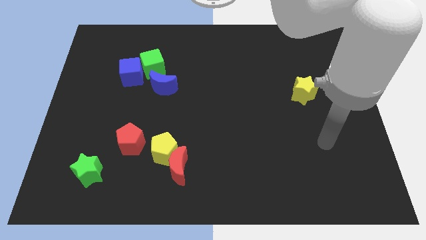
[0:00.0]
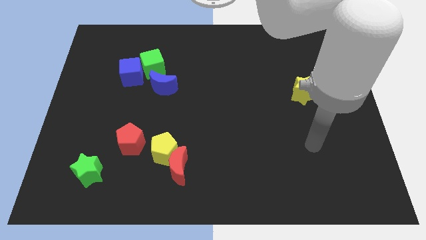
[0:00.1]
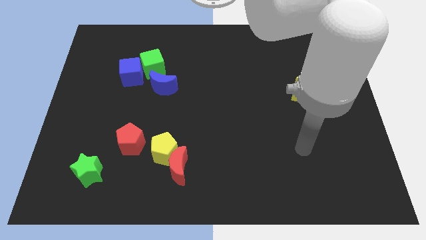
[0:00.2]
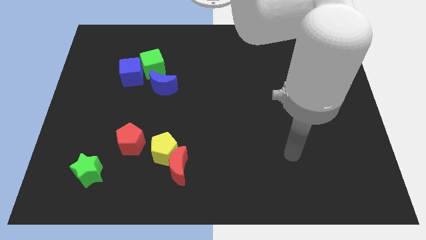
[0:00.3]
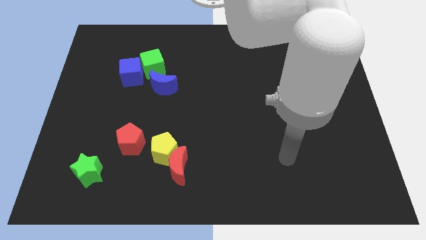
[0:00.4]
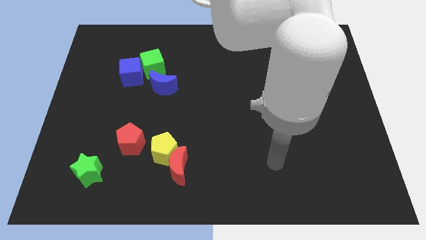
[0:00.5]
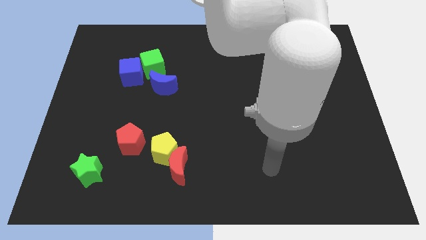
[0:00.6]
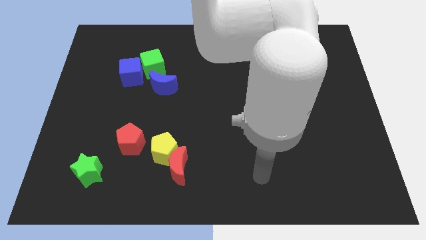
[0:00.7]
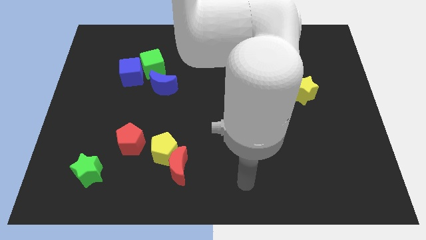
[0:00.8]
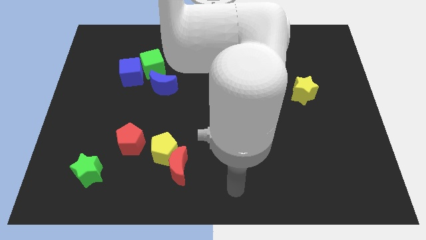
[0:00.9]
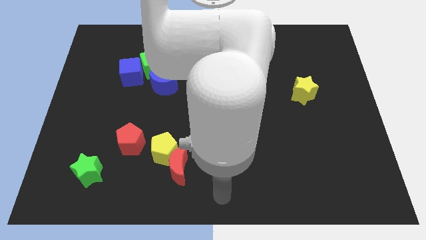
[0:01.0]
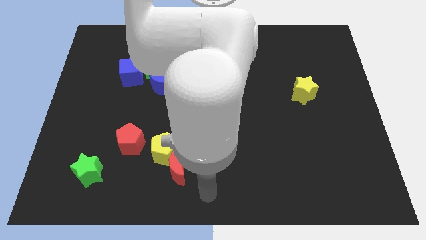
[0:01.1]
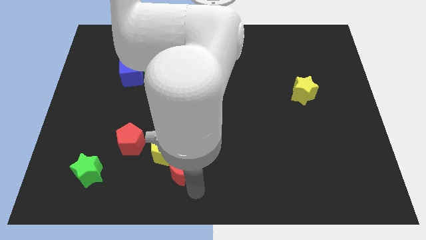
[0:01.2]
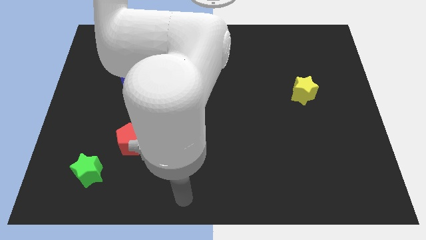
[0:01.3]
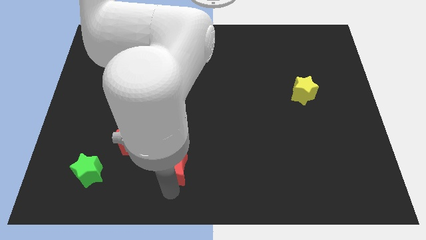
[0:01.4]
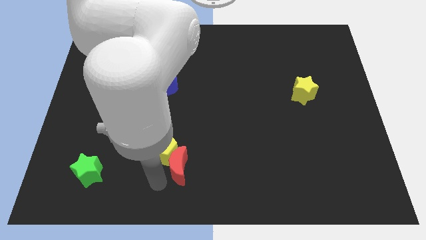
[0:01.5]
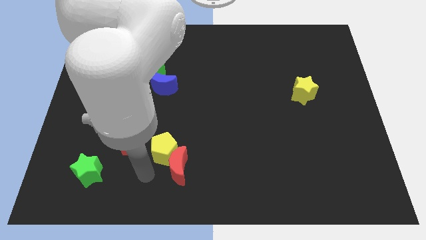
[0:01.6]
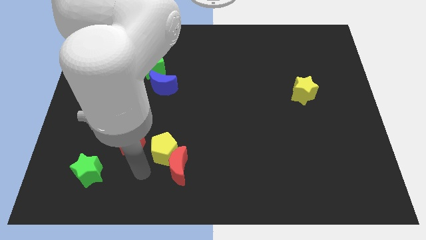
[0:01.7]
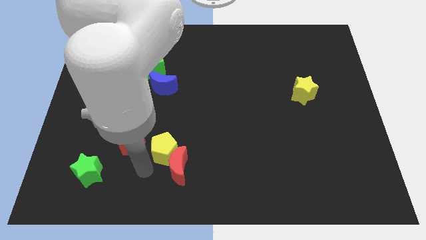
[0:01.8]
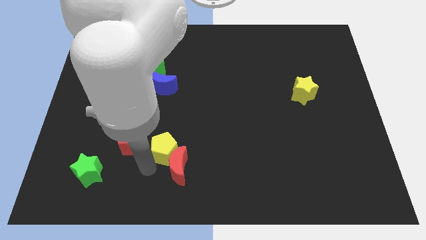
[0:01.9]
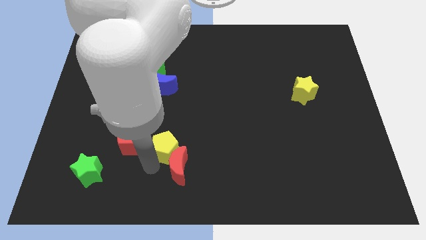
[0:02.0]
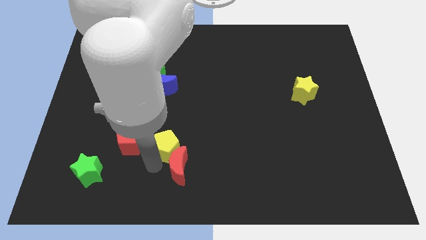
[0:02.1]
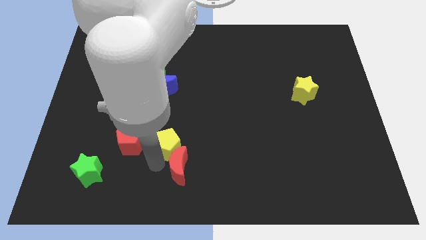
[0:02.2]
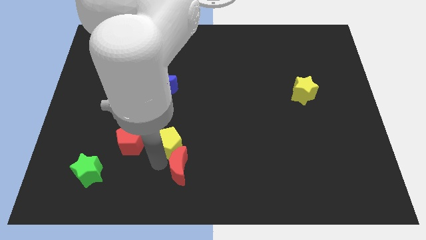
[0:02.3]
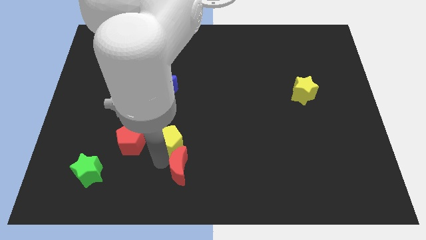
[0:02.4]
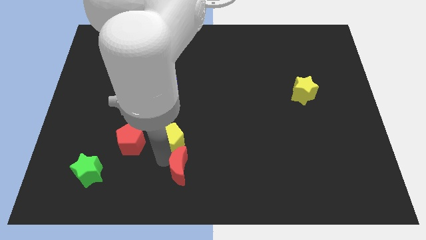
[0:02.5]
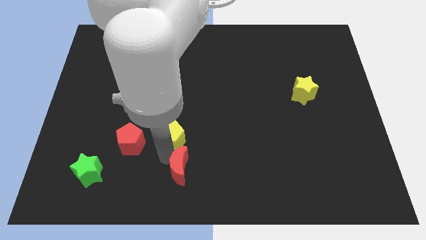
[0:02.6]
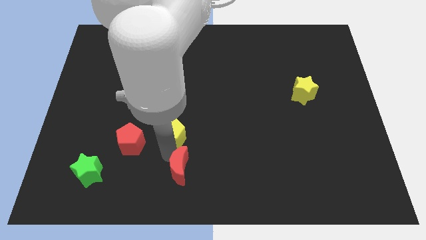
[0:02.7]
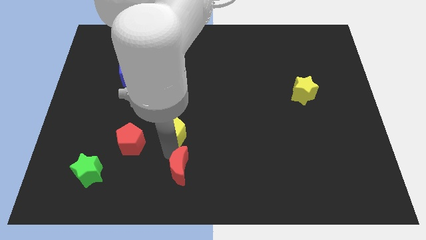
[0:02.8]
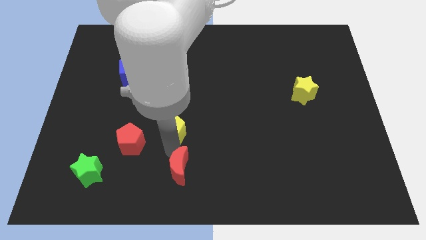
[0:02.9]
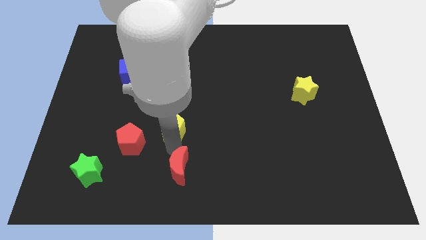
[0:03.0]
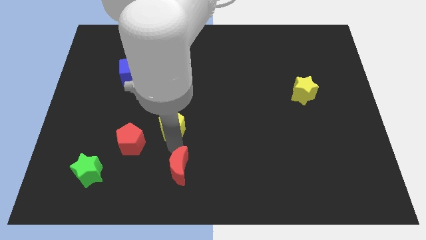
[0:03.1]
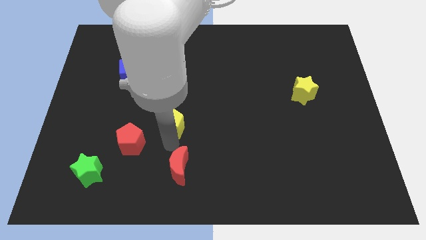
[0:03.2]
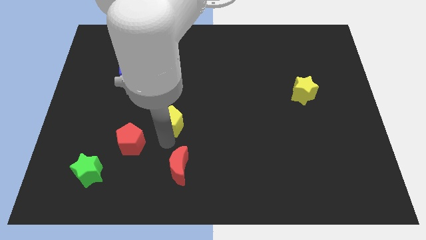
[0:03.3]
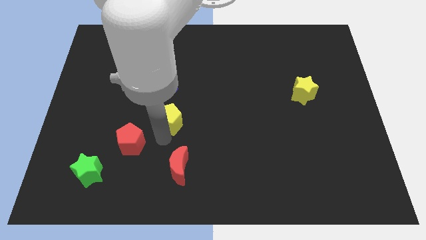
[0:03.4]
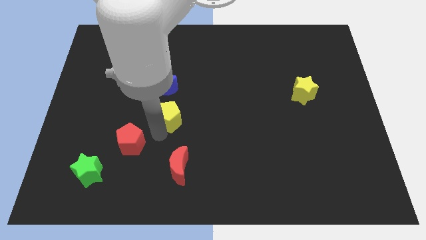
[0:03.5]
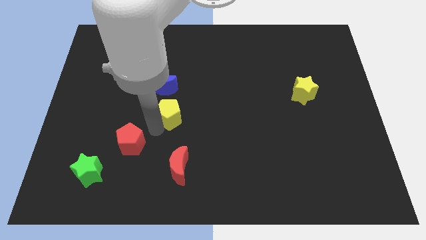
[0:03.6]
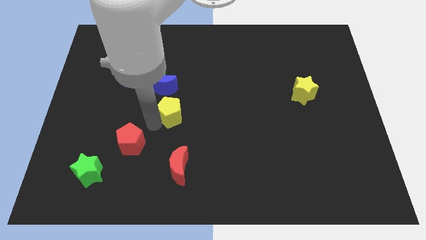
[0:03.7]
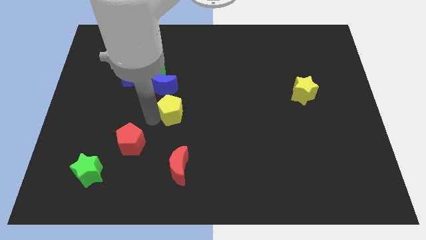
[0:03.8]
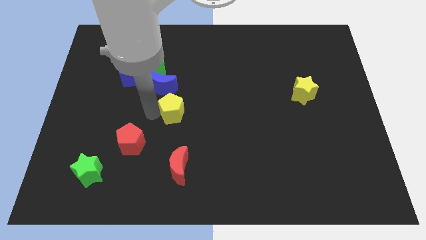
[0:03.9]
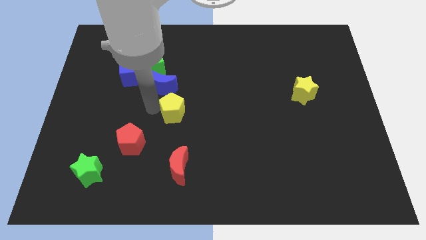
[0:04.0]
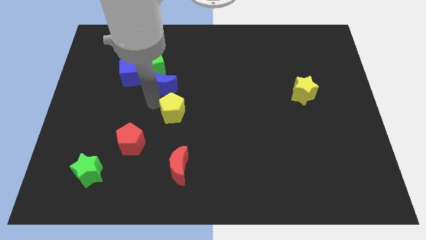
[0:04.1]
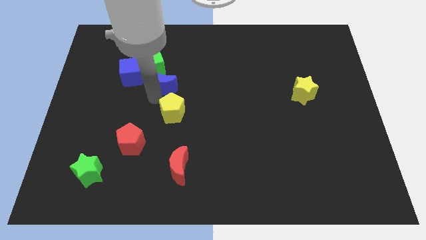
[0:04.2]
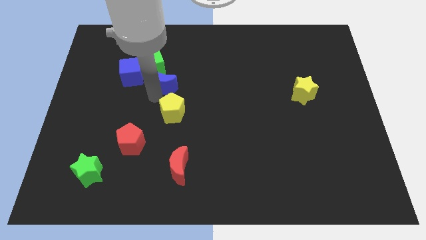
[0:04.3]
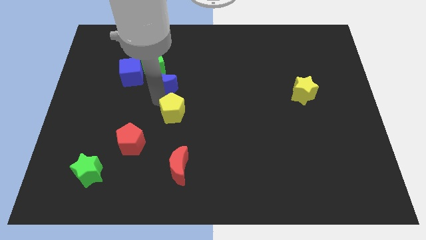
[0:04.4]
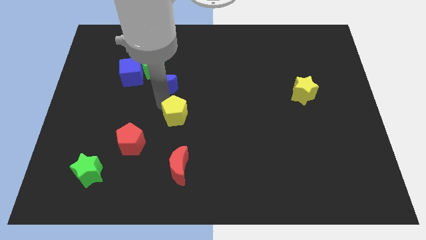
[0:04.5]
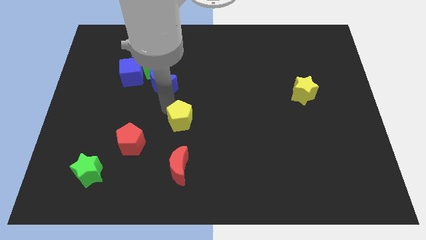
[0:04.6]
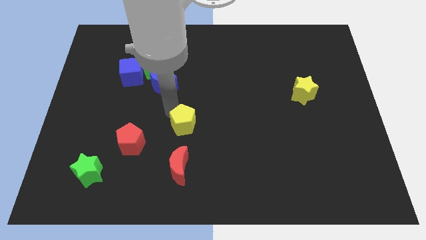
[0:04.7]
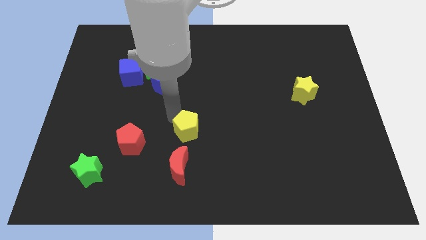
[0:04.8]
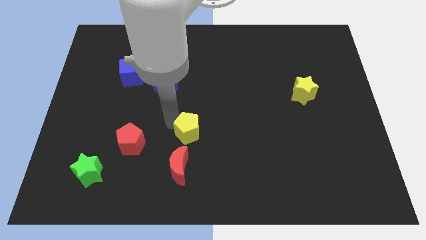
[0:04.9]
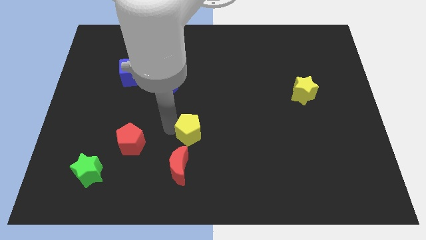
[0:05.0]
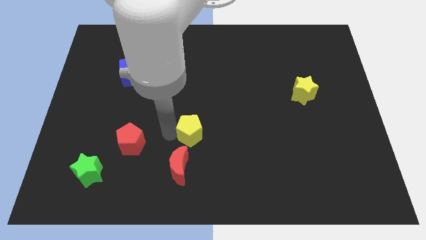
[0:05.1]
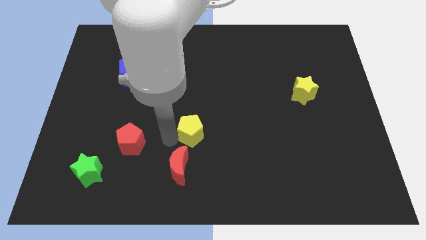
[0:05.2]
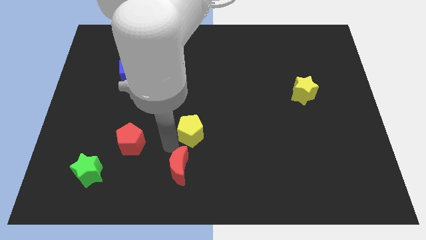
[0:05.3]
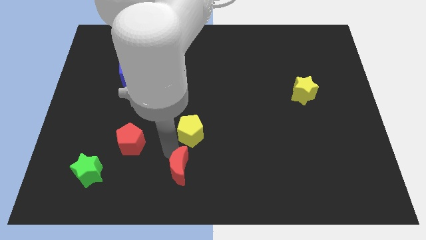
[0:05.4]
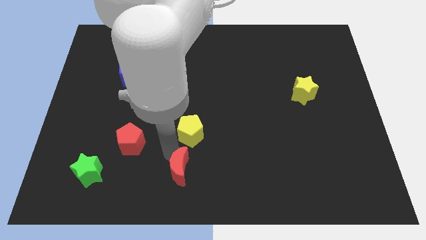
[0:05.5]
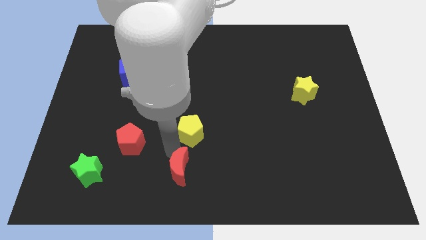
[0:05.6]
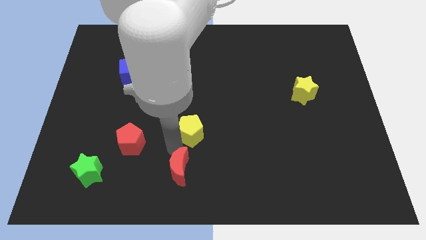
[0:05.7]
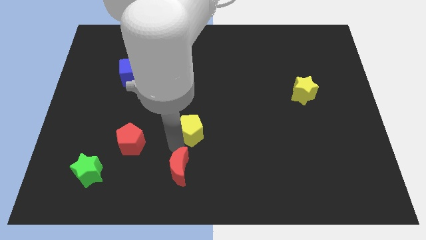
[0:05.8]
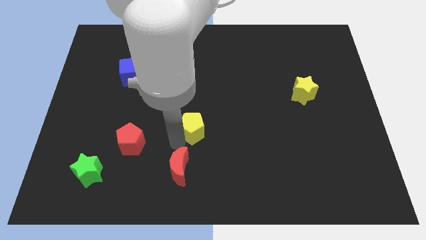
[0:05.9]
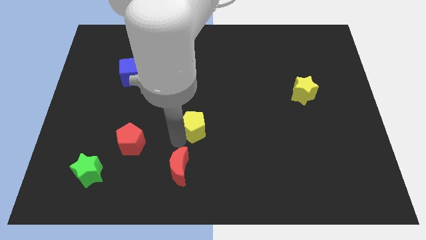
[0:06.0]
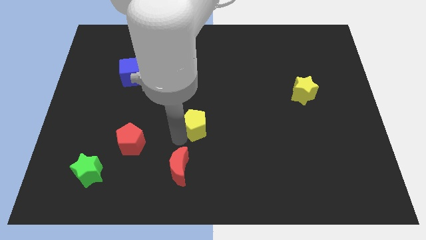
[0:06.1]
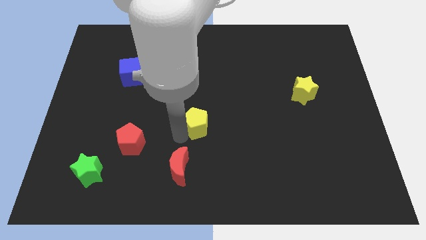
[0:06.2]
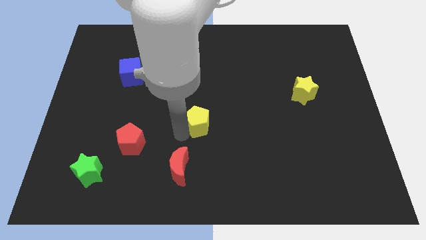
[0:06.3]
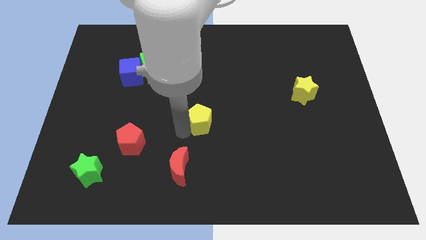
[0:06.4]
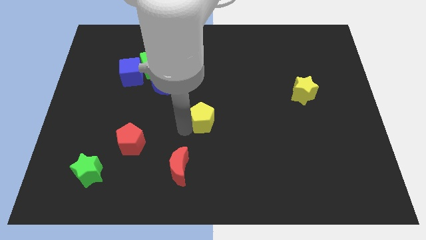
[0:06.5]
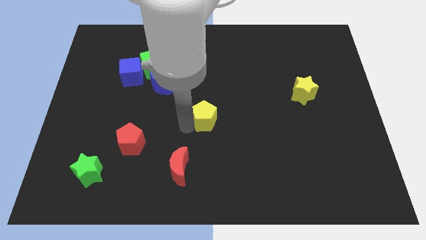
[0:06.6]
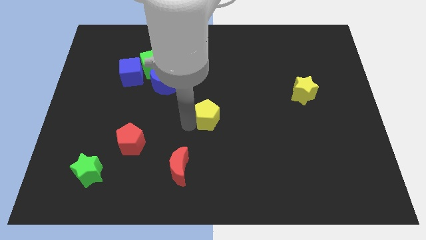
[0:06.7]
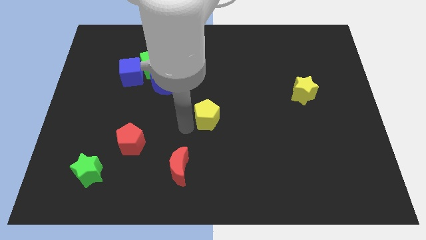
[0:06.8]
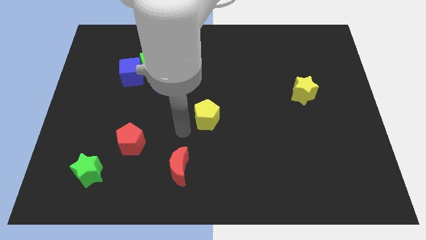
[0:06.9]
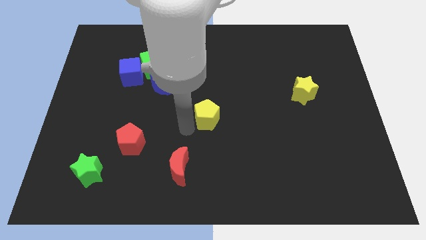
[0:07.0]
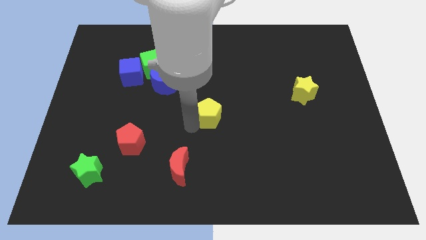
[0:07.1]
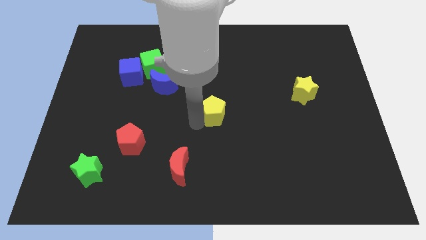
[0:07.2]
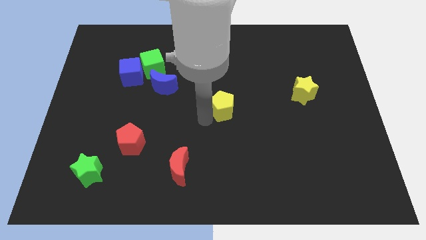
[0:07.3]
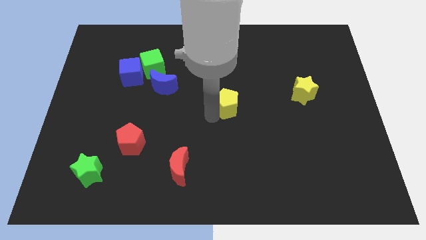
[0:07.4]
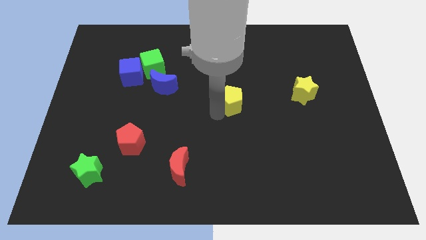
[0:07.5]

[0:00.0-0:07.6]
slide the yellow pentagon diagonally upwards and to the right

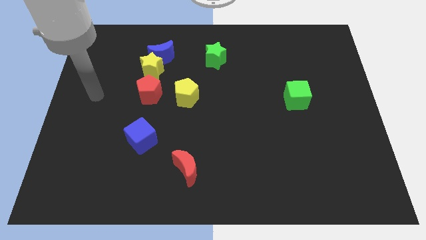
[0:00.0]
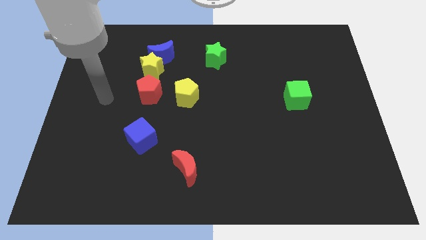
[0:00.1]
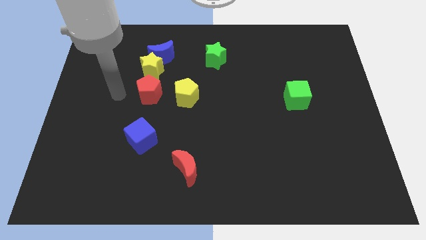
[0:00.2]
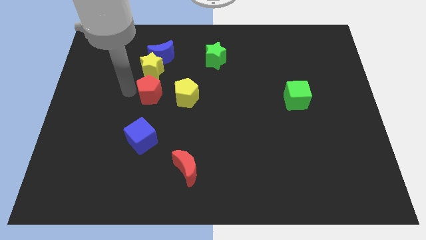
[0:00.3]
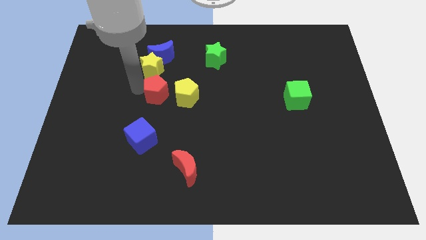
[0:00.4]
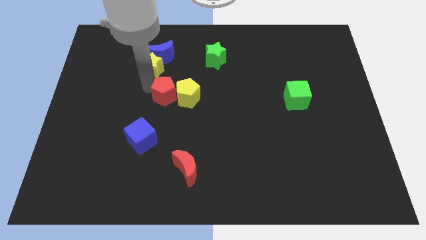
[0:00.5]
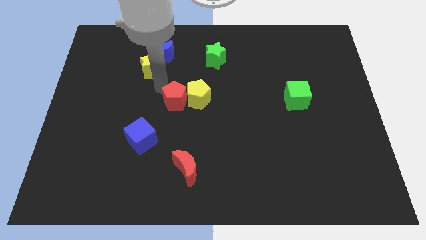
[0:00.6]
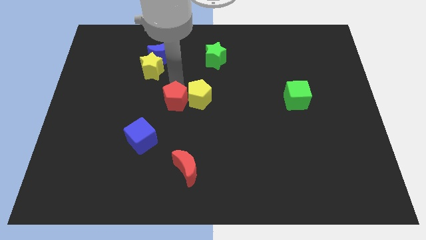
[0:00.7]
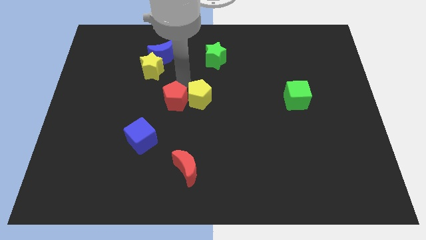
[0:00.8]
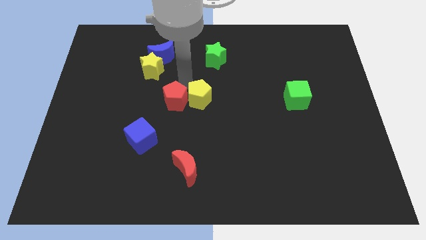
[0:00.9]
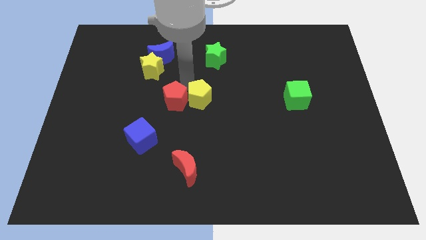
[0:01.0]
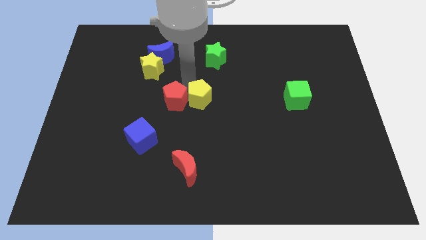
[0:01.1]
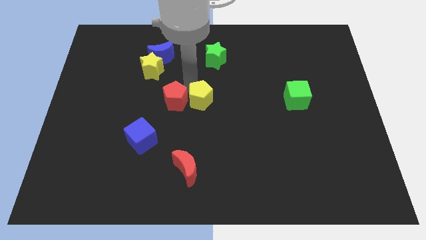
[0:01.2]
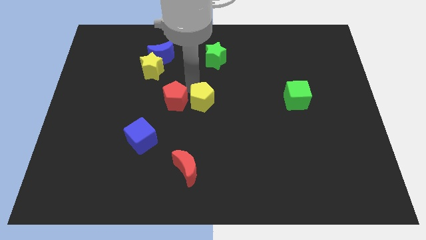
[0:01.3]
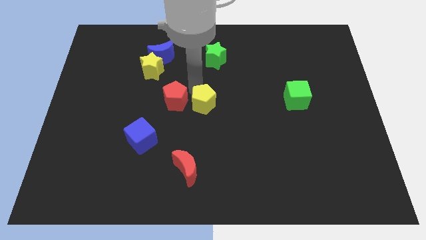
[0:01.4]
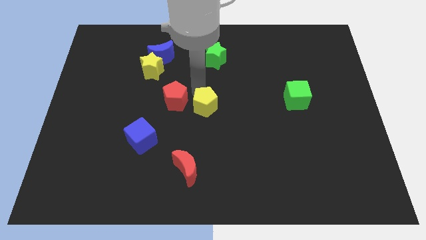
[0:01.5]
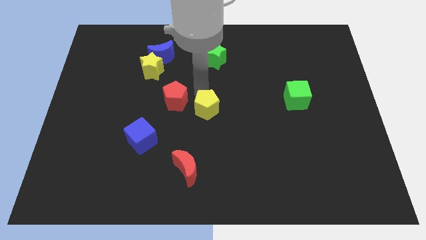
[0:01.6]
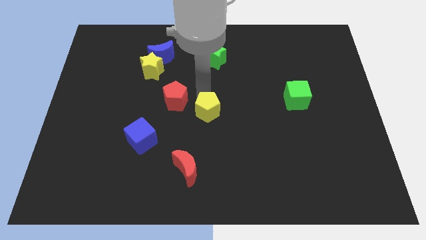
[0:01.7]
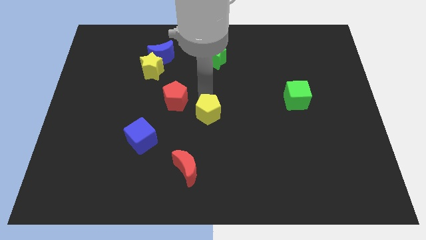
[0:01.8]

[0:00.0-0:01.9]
push the yellow pentagon a bit diagonally down and to the right
